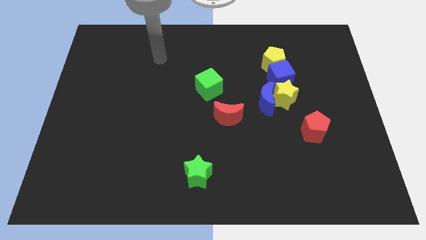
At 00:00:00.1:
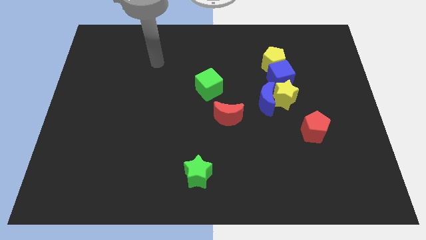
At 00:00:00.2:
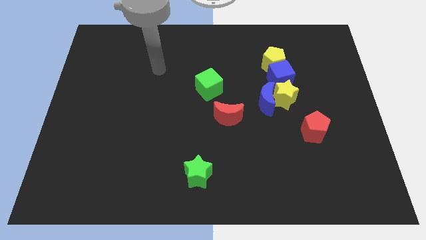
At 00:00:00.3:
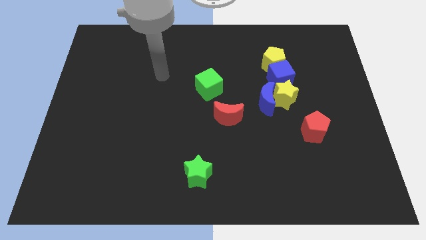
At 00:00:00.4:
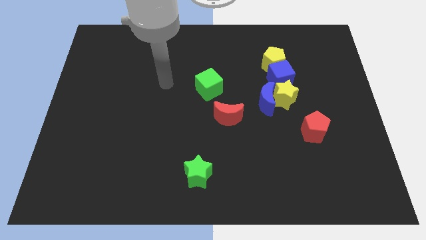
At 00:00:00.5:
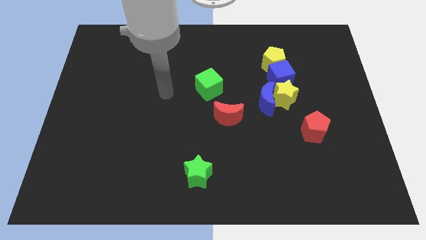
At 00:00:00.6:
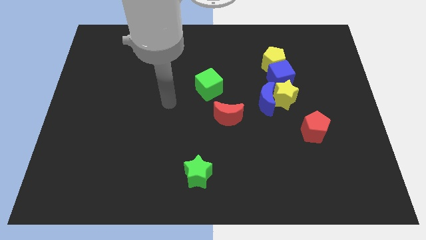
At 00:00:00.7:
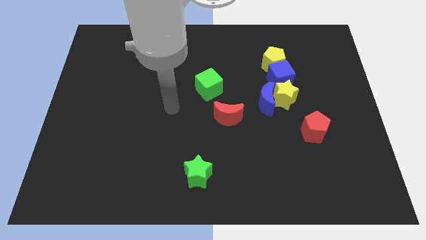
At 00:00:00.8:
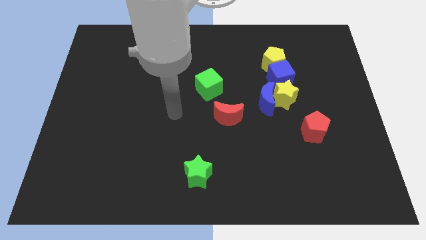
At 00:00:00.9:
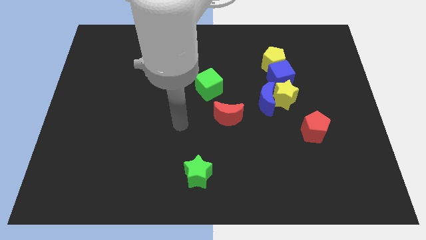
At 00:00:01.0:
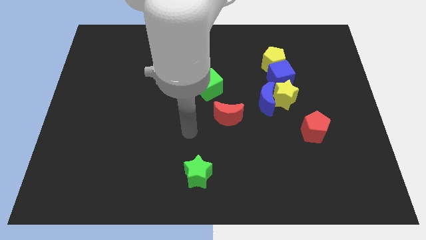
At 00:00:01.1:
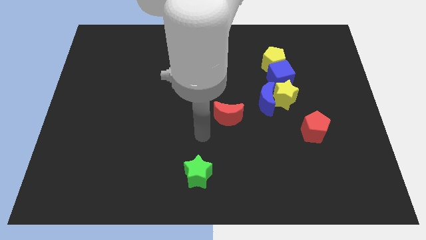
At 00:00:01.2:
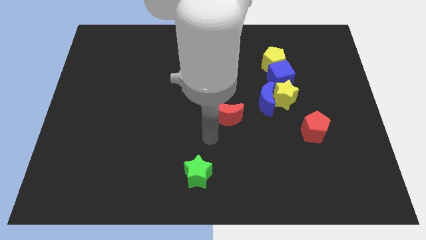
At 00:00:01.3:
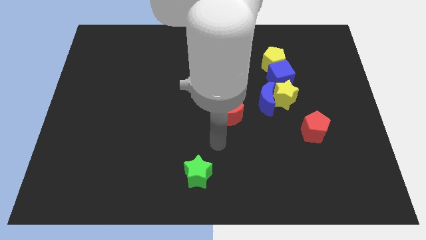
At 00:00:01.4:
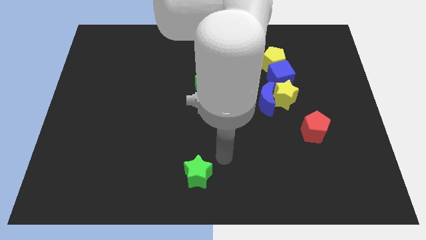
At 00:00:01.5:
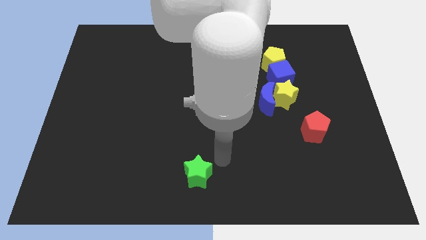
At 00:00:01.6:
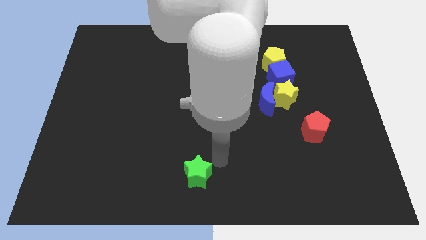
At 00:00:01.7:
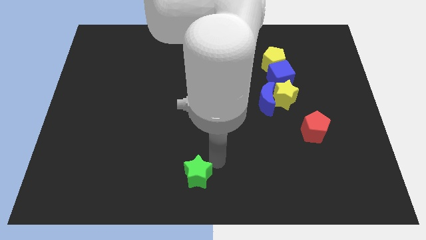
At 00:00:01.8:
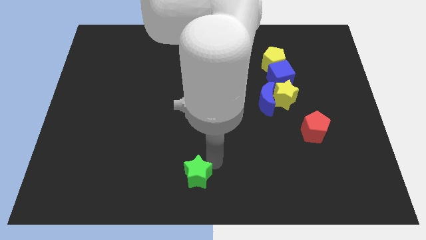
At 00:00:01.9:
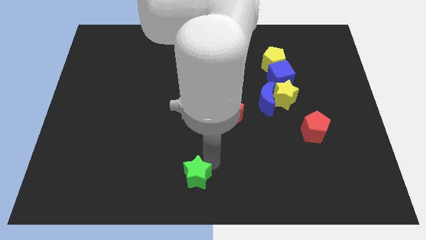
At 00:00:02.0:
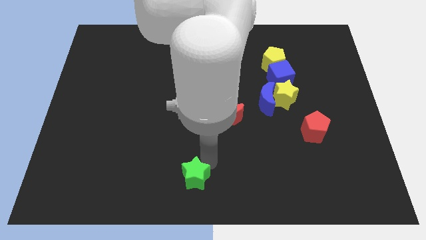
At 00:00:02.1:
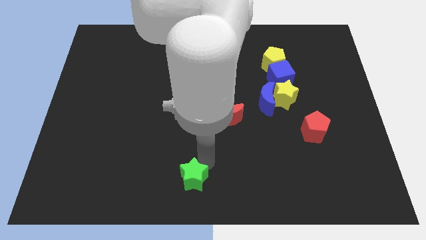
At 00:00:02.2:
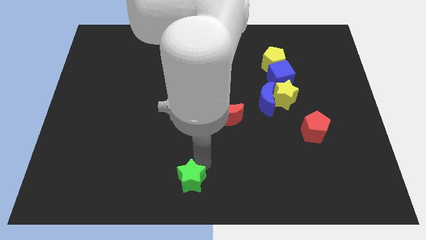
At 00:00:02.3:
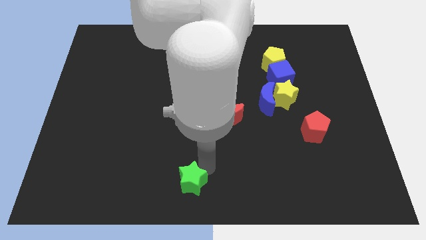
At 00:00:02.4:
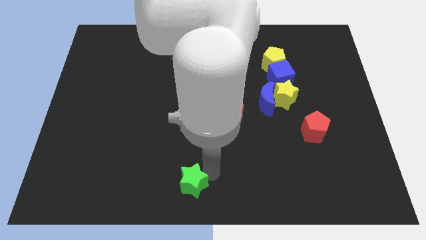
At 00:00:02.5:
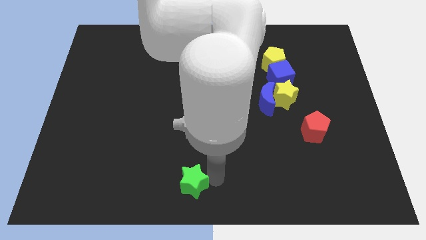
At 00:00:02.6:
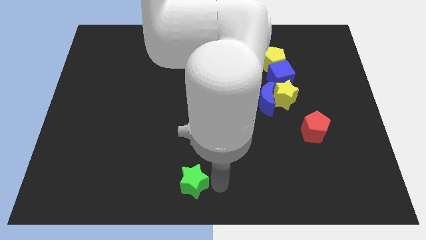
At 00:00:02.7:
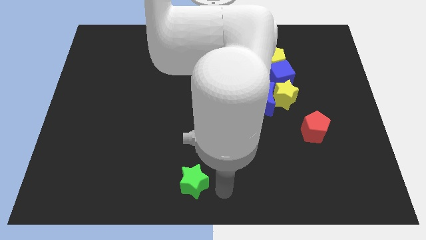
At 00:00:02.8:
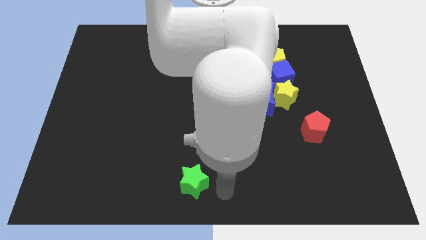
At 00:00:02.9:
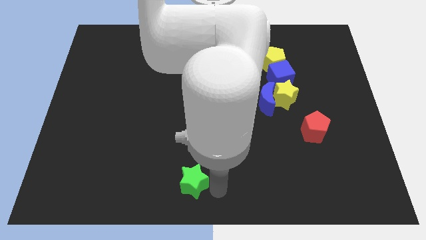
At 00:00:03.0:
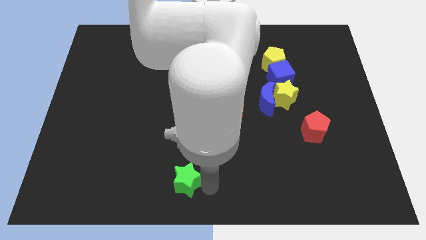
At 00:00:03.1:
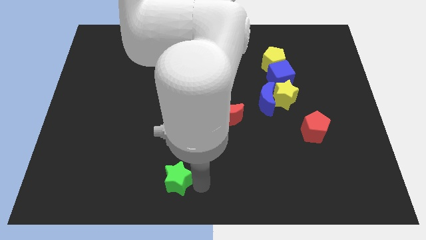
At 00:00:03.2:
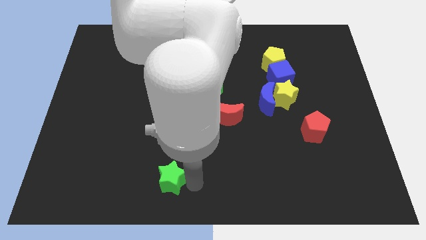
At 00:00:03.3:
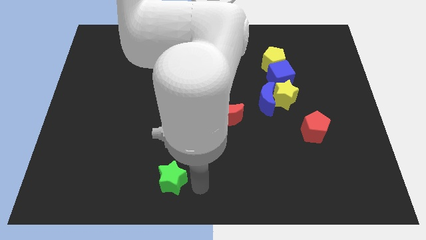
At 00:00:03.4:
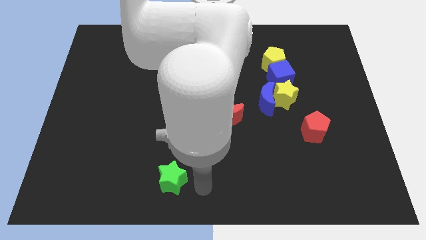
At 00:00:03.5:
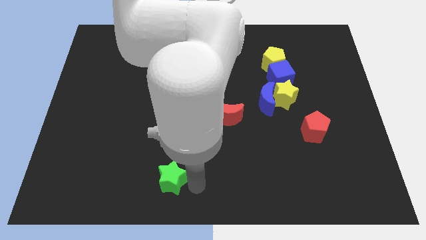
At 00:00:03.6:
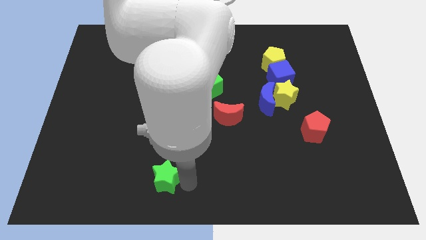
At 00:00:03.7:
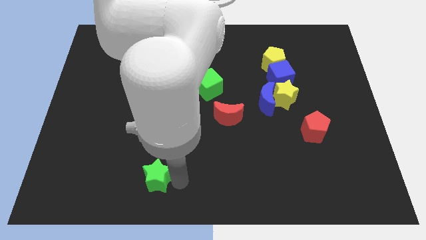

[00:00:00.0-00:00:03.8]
slightly push the green star to the left

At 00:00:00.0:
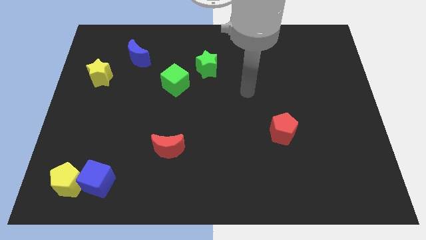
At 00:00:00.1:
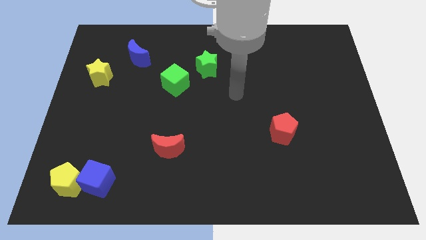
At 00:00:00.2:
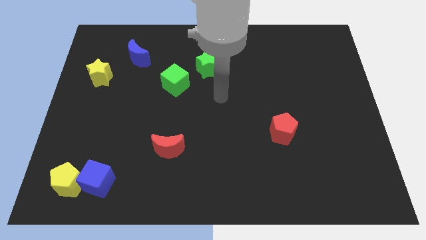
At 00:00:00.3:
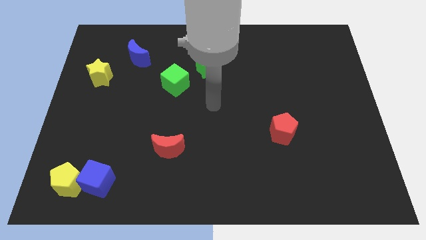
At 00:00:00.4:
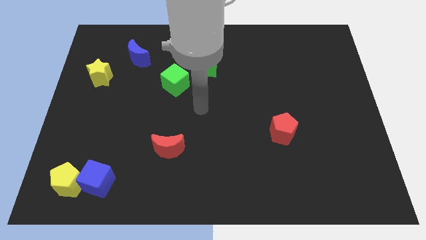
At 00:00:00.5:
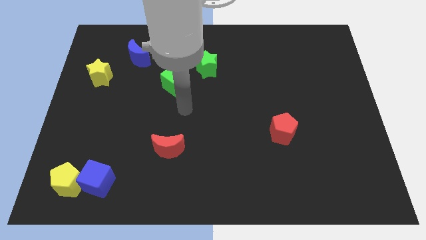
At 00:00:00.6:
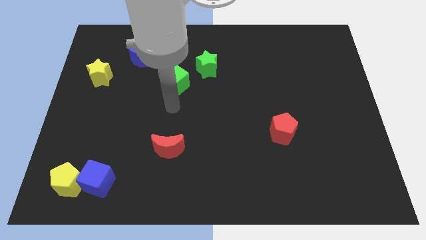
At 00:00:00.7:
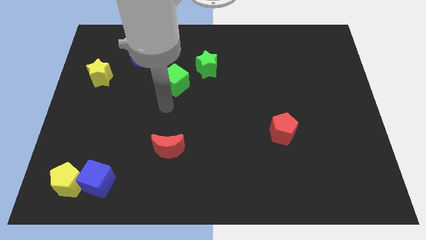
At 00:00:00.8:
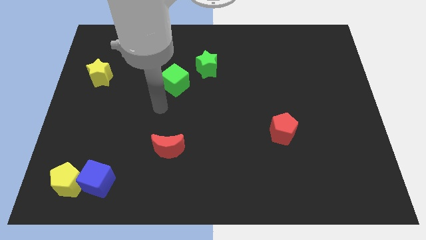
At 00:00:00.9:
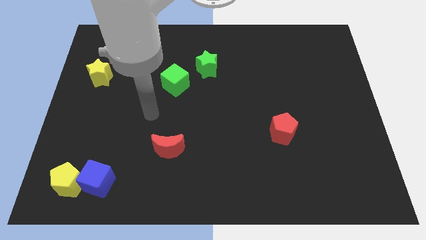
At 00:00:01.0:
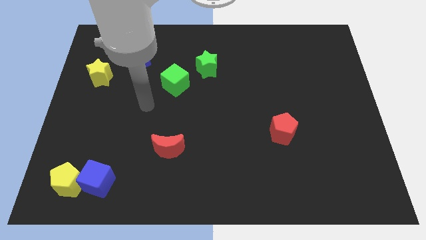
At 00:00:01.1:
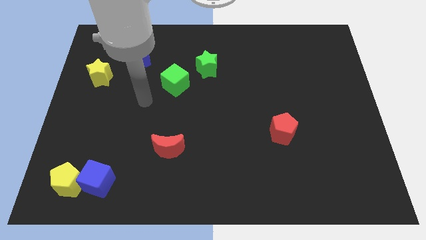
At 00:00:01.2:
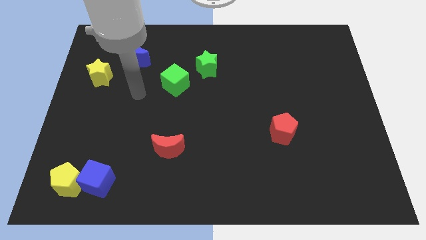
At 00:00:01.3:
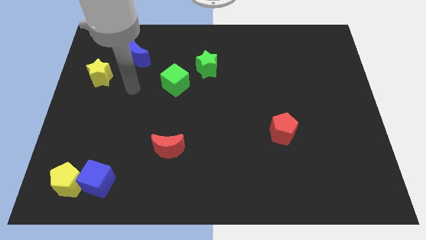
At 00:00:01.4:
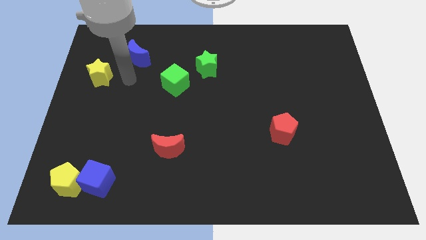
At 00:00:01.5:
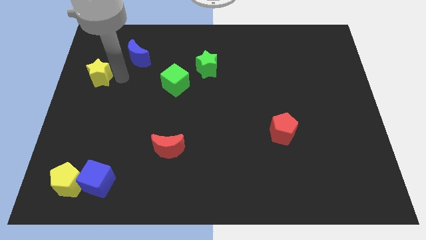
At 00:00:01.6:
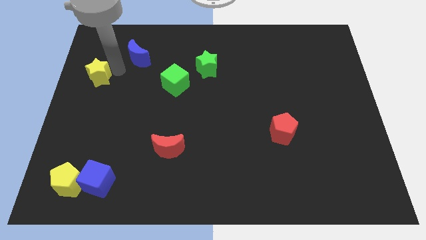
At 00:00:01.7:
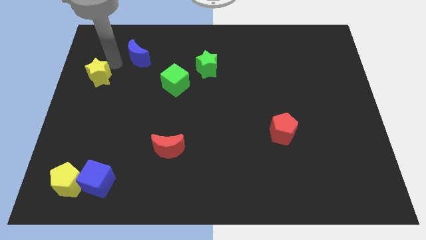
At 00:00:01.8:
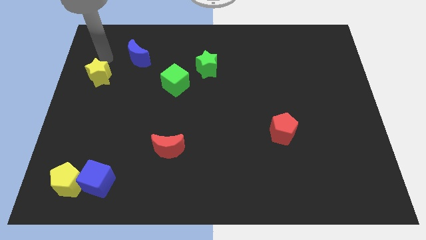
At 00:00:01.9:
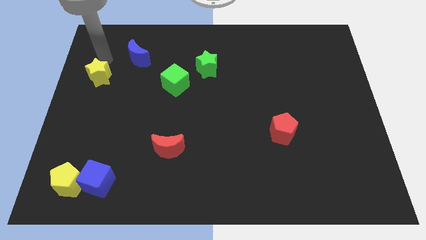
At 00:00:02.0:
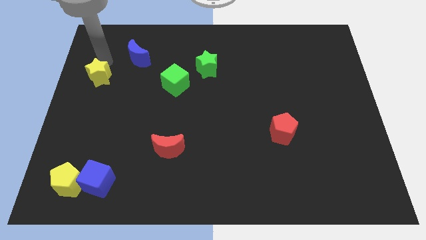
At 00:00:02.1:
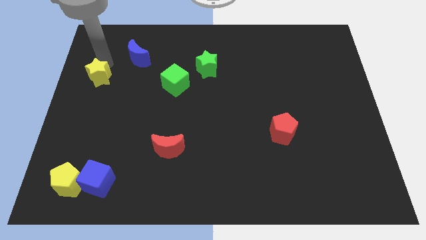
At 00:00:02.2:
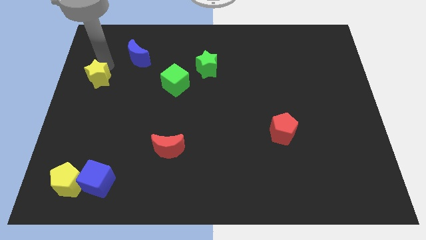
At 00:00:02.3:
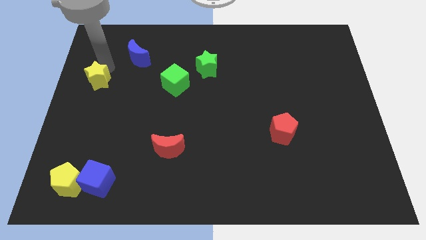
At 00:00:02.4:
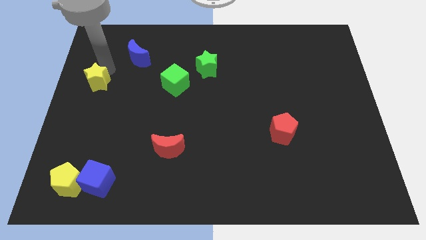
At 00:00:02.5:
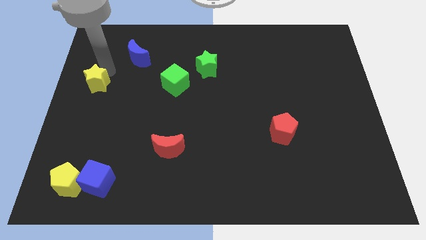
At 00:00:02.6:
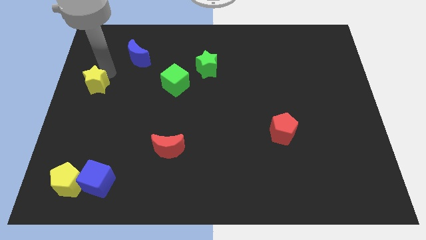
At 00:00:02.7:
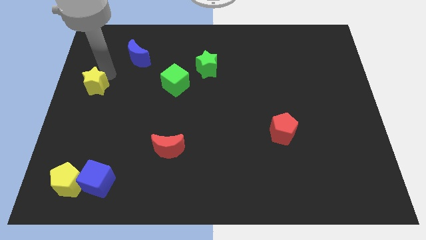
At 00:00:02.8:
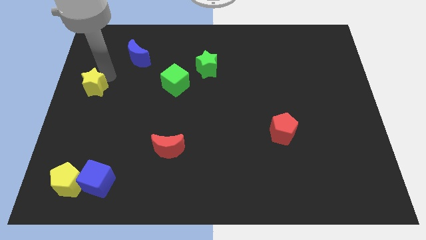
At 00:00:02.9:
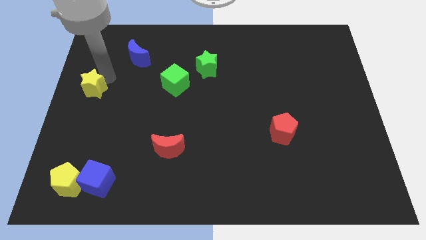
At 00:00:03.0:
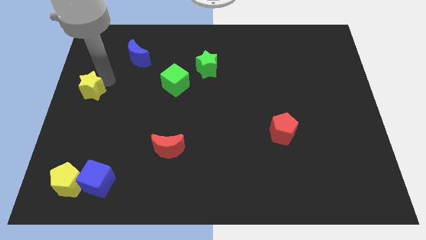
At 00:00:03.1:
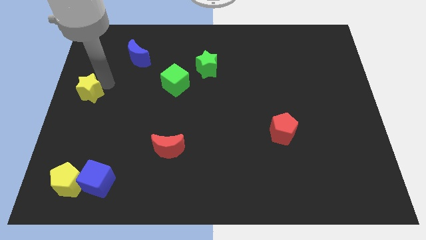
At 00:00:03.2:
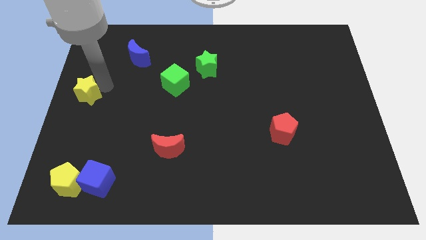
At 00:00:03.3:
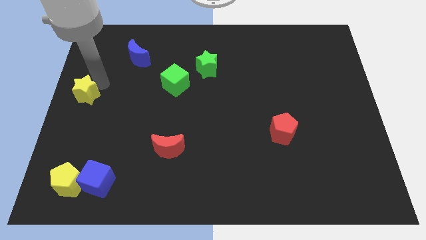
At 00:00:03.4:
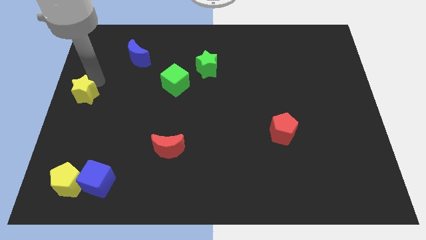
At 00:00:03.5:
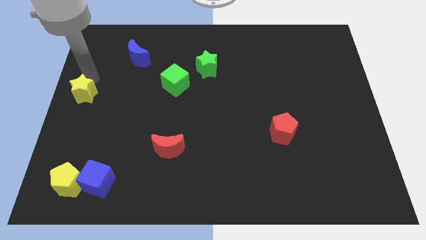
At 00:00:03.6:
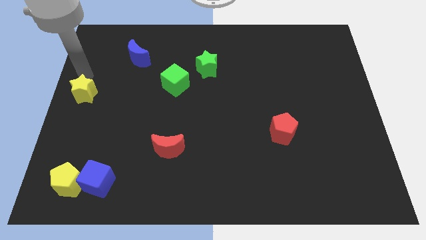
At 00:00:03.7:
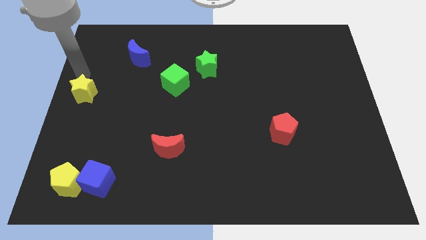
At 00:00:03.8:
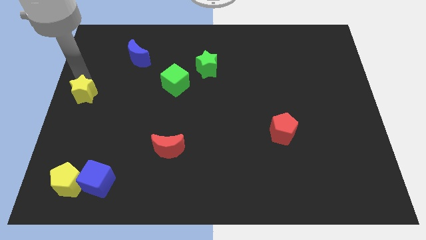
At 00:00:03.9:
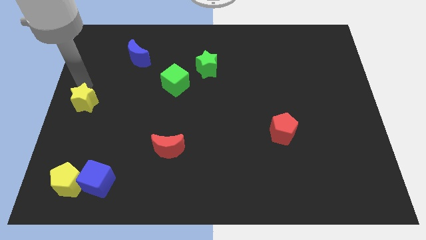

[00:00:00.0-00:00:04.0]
push the yellow star downwards slightly

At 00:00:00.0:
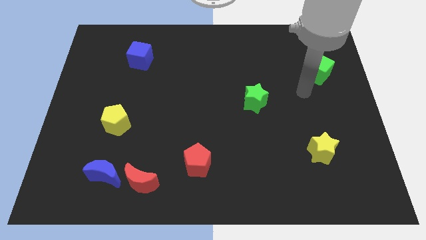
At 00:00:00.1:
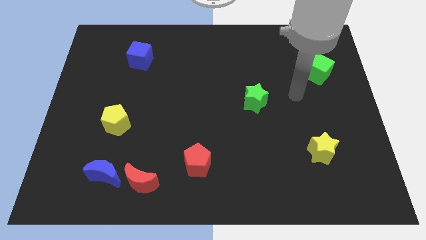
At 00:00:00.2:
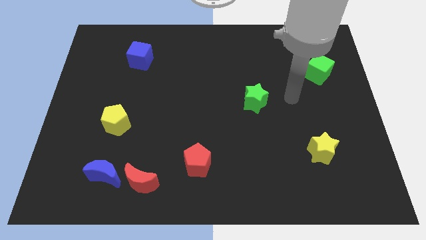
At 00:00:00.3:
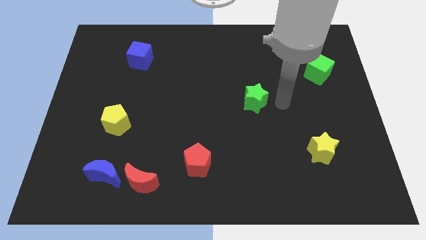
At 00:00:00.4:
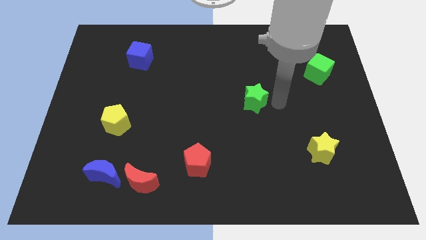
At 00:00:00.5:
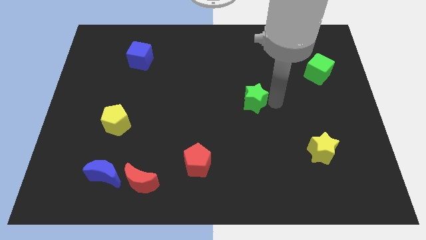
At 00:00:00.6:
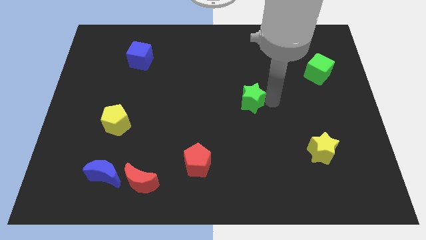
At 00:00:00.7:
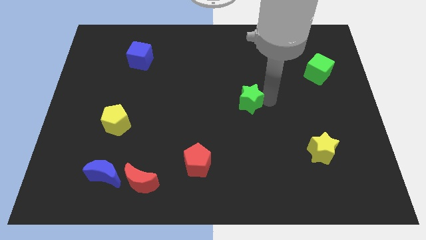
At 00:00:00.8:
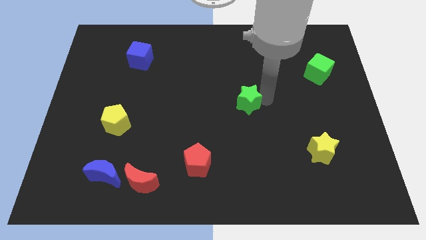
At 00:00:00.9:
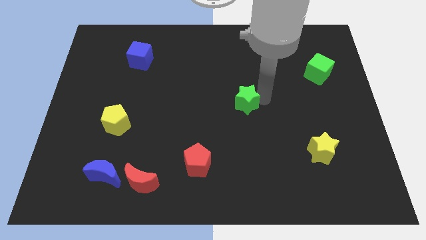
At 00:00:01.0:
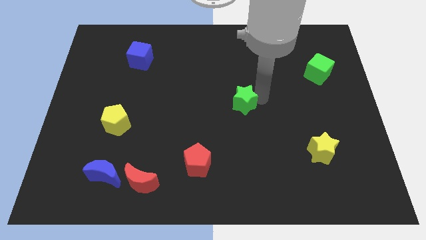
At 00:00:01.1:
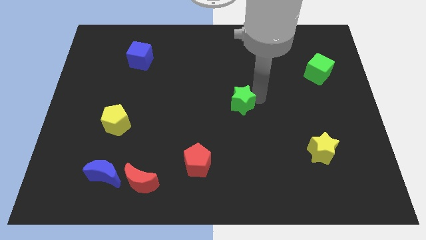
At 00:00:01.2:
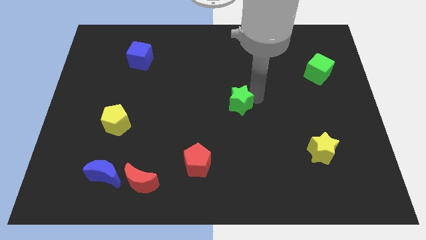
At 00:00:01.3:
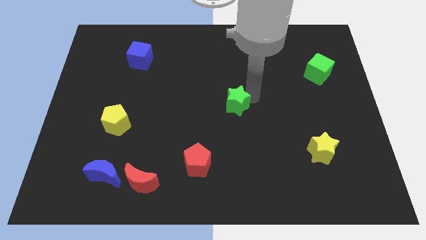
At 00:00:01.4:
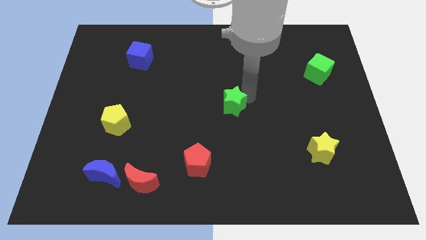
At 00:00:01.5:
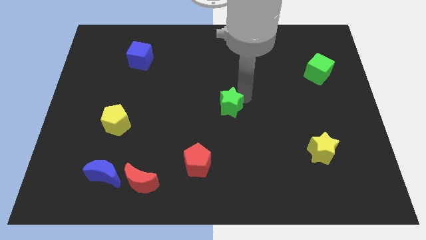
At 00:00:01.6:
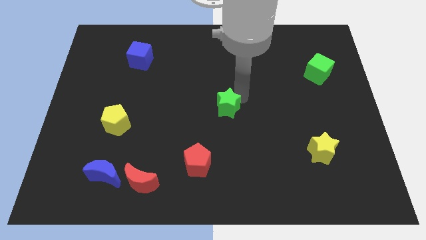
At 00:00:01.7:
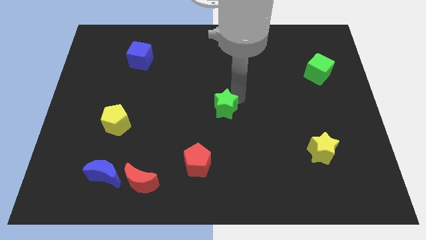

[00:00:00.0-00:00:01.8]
slightly push the green star left
